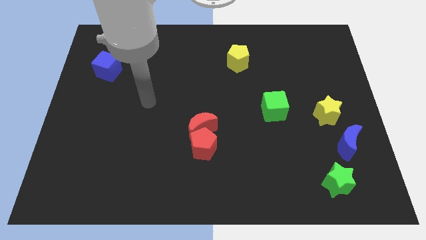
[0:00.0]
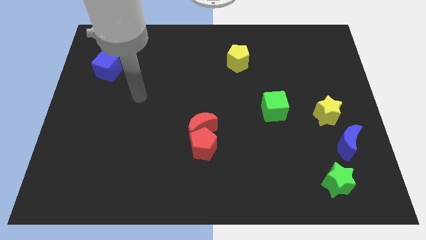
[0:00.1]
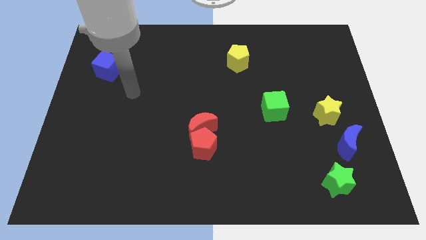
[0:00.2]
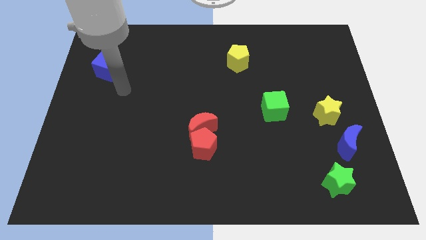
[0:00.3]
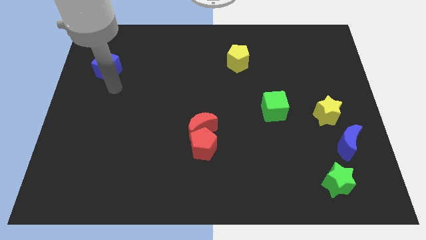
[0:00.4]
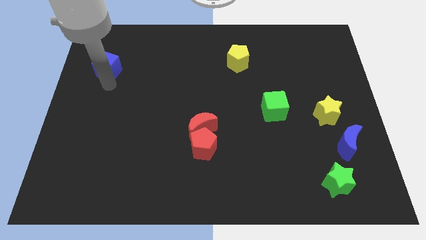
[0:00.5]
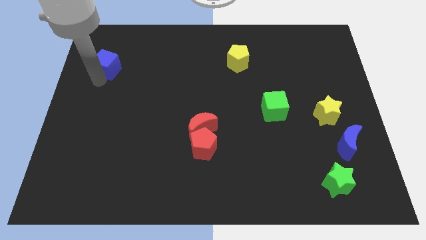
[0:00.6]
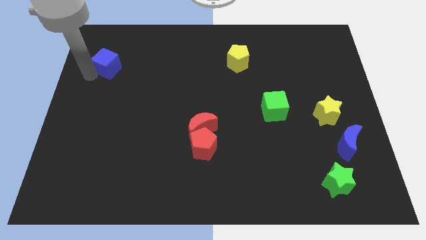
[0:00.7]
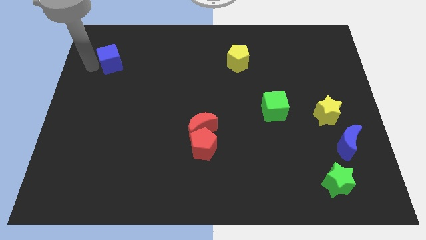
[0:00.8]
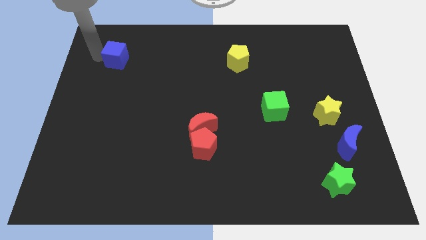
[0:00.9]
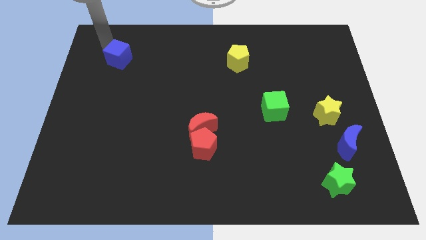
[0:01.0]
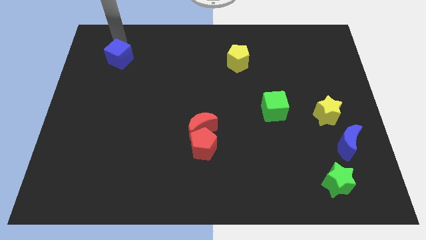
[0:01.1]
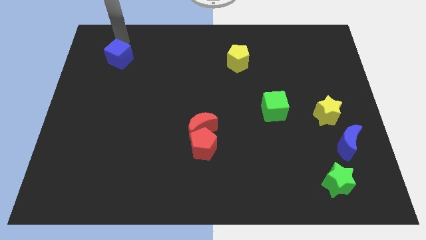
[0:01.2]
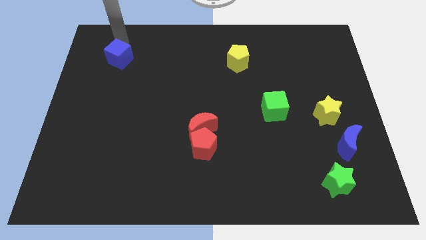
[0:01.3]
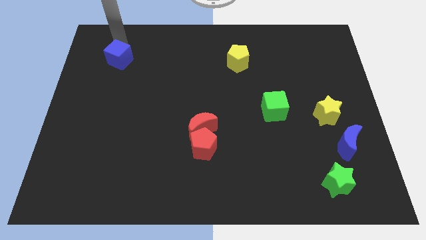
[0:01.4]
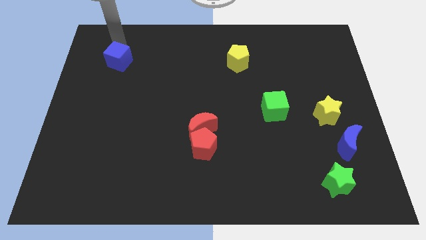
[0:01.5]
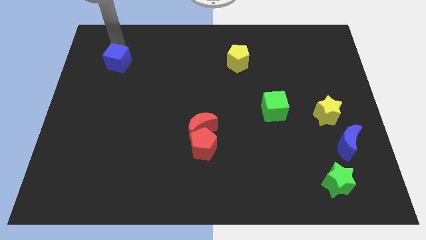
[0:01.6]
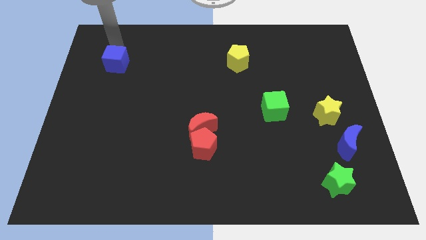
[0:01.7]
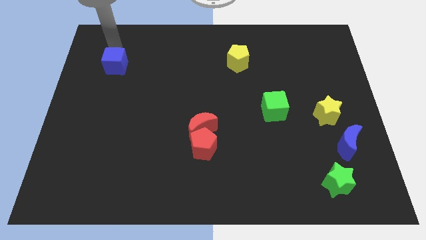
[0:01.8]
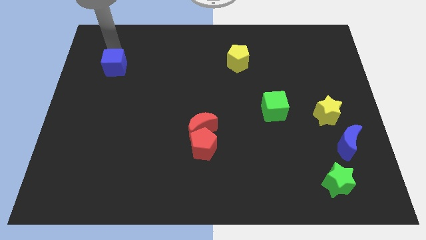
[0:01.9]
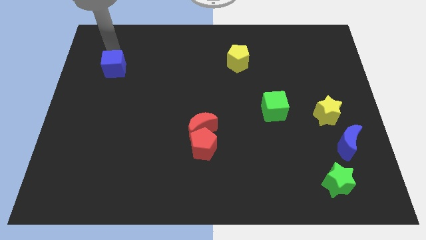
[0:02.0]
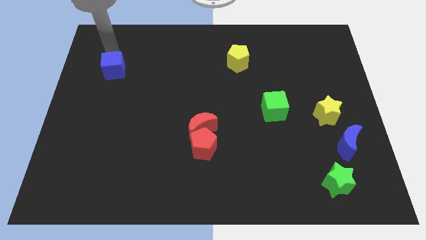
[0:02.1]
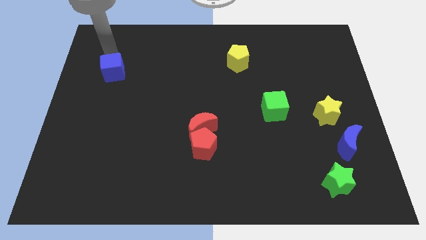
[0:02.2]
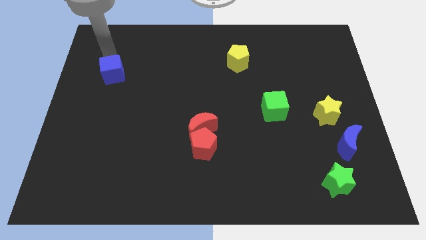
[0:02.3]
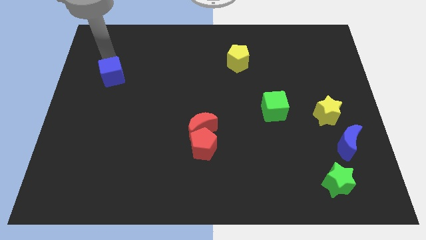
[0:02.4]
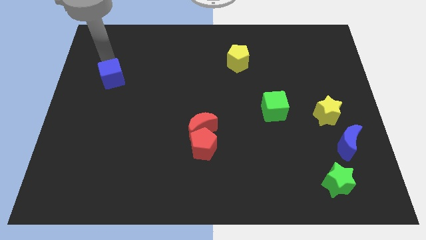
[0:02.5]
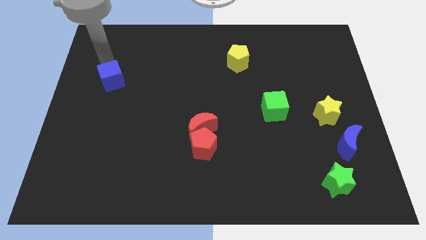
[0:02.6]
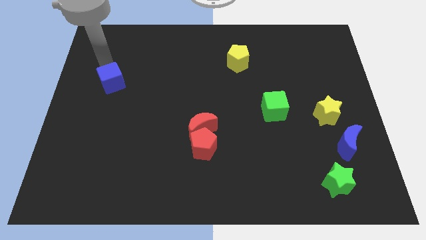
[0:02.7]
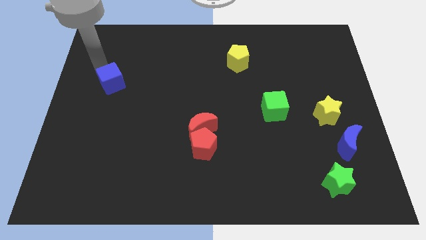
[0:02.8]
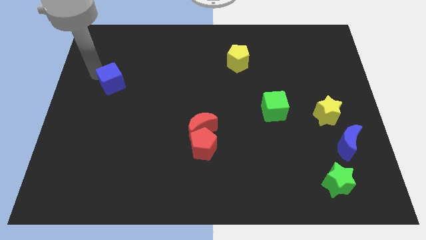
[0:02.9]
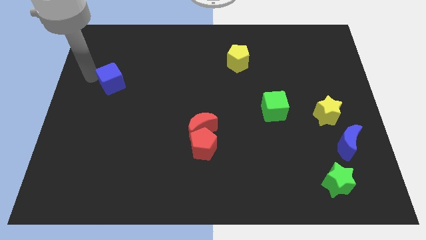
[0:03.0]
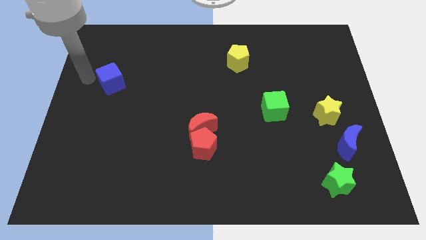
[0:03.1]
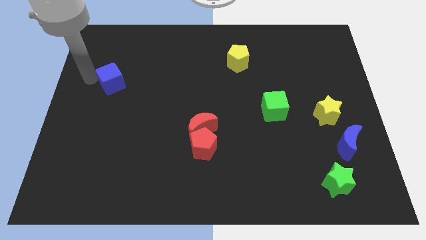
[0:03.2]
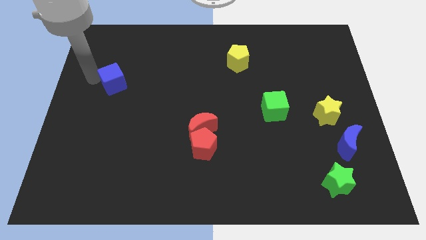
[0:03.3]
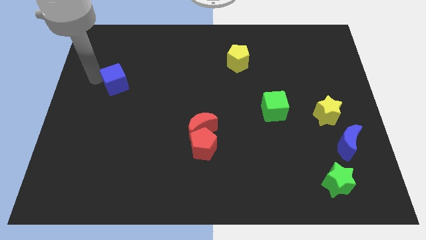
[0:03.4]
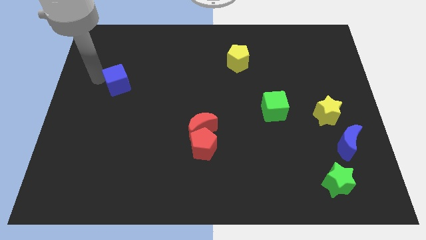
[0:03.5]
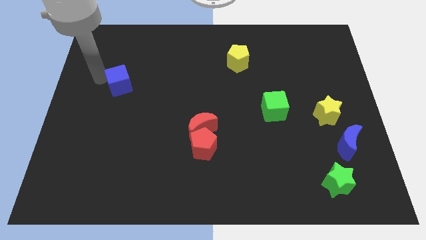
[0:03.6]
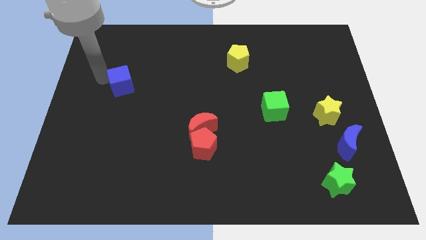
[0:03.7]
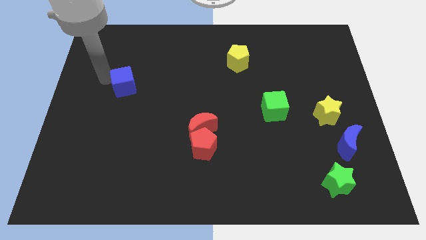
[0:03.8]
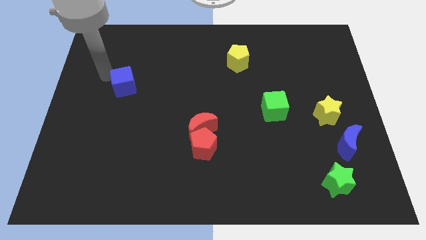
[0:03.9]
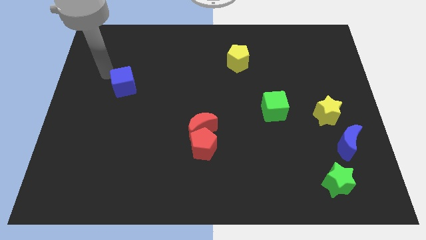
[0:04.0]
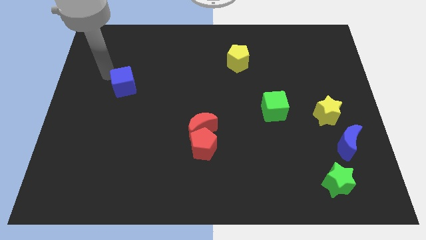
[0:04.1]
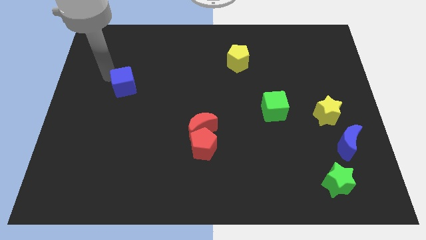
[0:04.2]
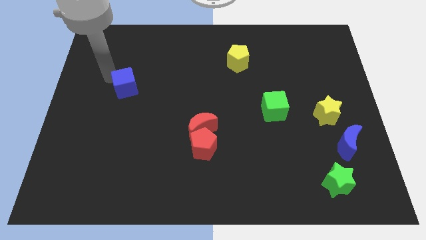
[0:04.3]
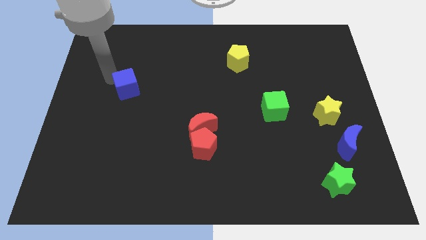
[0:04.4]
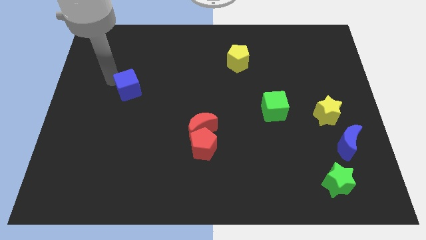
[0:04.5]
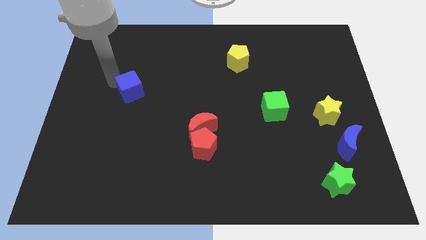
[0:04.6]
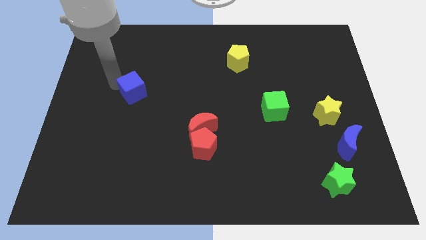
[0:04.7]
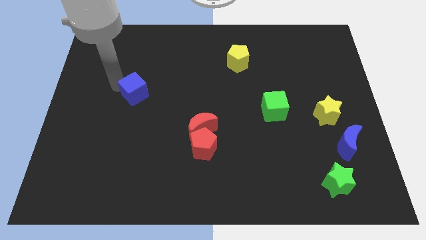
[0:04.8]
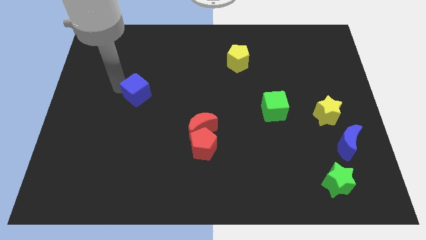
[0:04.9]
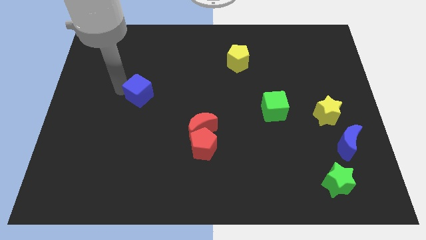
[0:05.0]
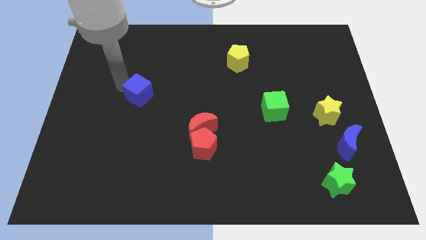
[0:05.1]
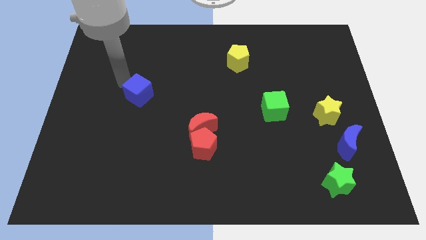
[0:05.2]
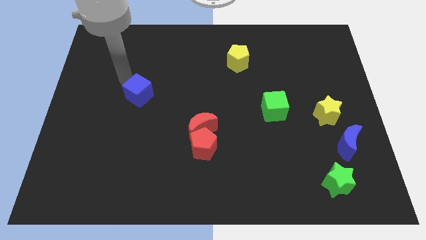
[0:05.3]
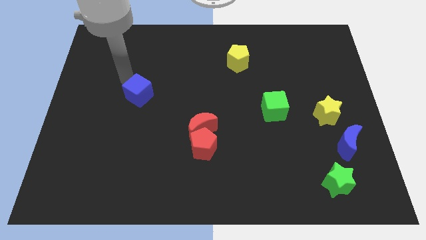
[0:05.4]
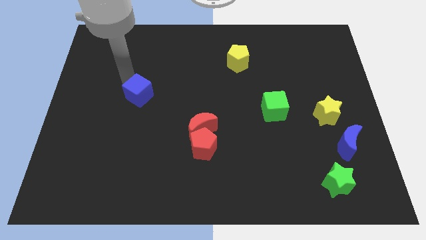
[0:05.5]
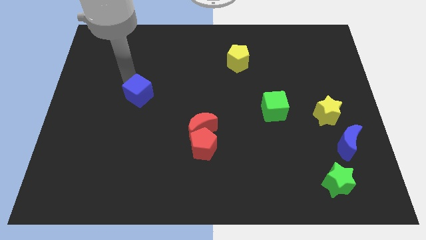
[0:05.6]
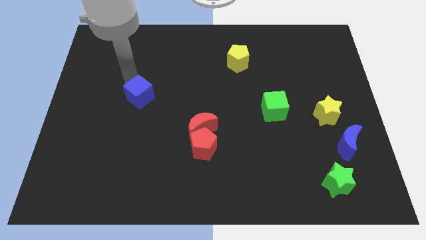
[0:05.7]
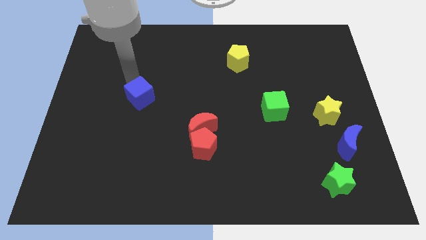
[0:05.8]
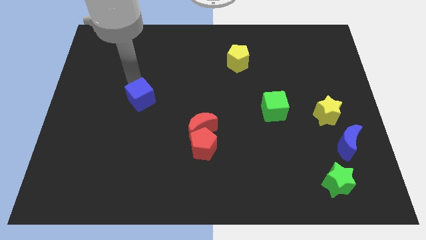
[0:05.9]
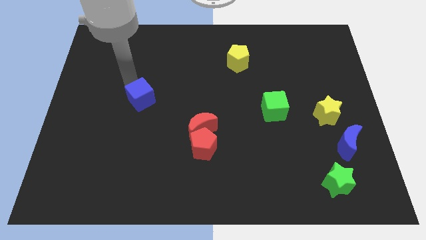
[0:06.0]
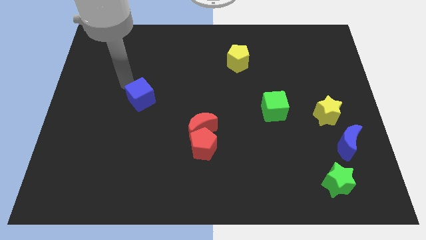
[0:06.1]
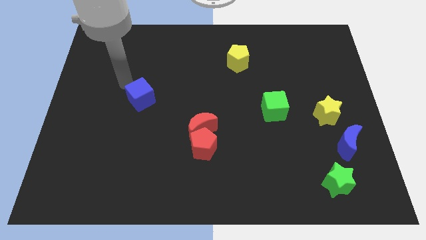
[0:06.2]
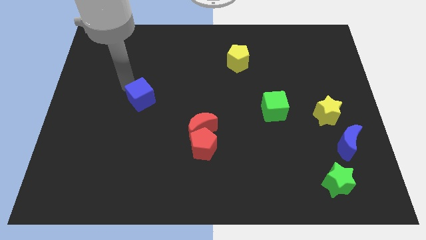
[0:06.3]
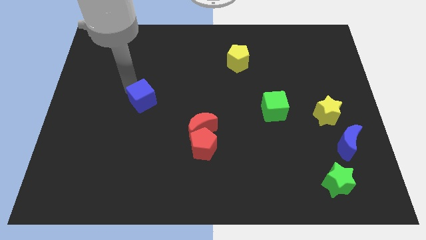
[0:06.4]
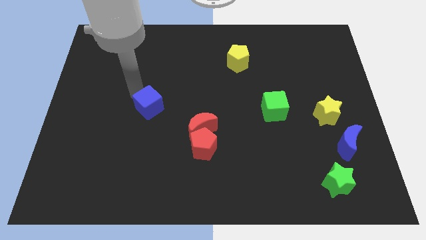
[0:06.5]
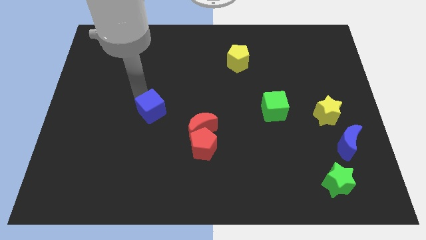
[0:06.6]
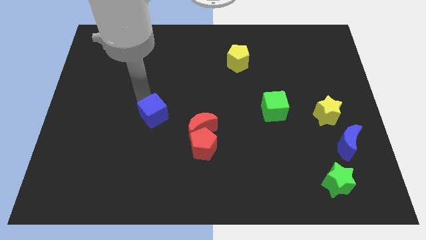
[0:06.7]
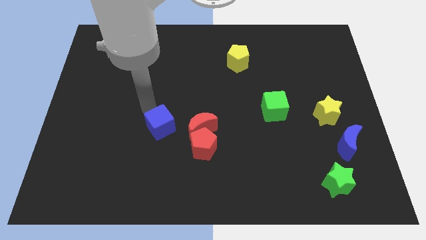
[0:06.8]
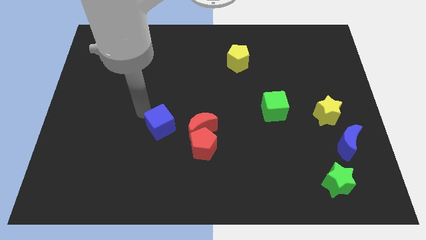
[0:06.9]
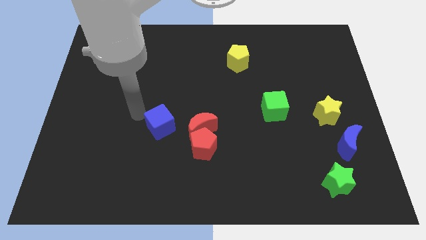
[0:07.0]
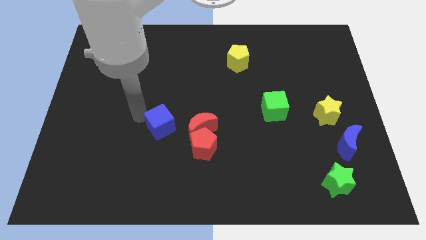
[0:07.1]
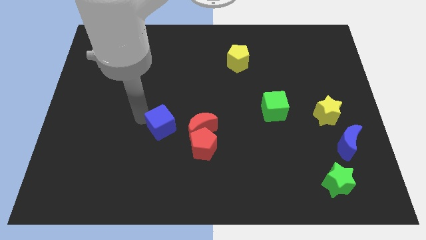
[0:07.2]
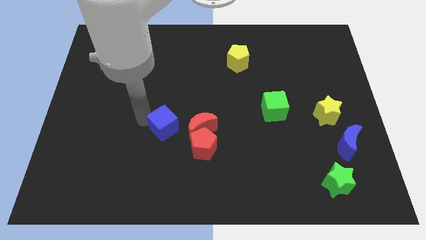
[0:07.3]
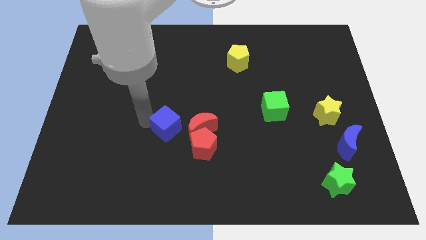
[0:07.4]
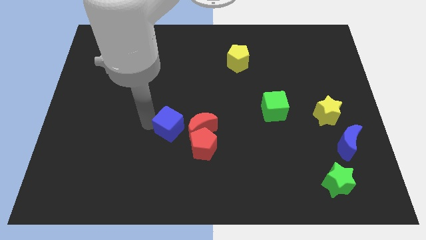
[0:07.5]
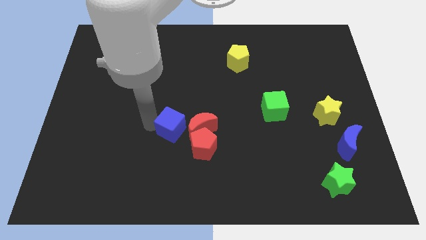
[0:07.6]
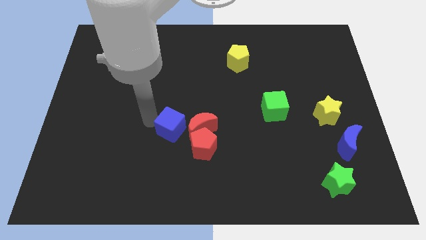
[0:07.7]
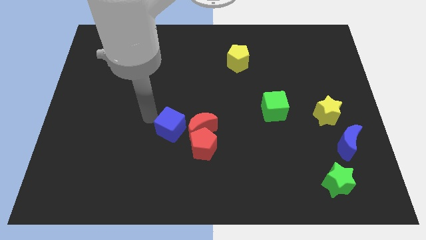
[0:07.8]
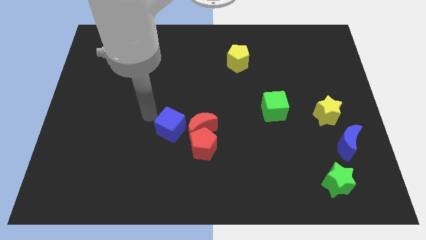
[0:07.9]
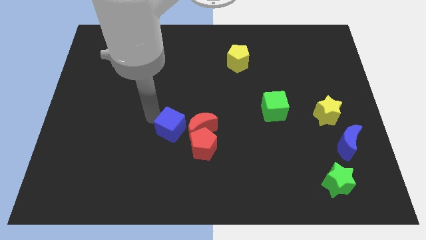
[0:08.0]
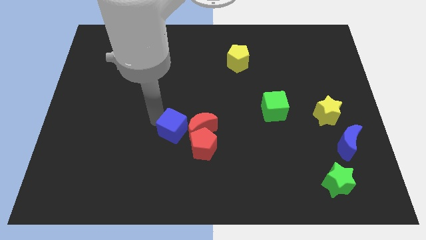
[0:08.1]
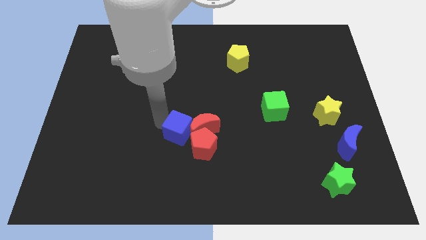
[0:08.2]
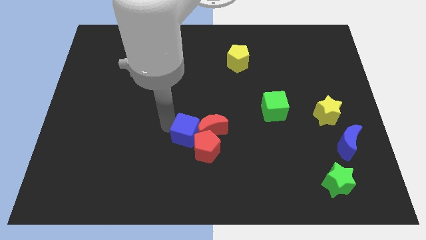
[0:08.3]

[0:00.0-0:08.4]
slide the blue cube towards the red pentagon
